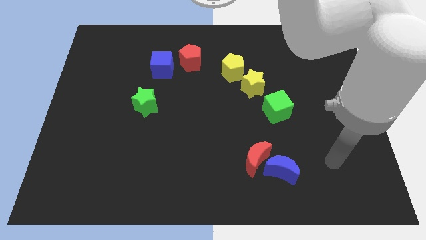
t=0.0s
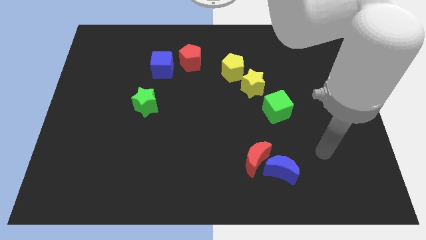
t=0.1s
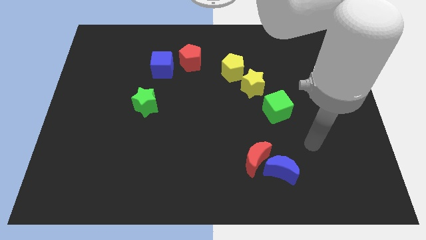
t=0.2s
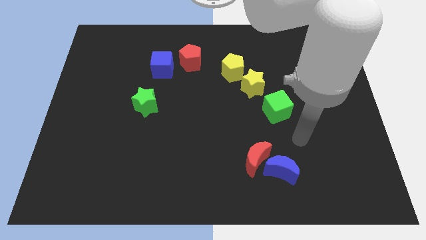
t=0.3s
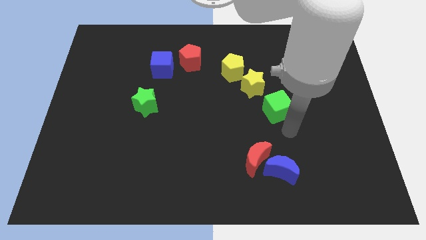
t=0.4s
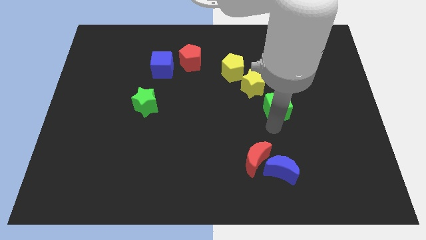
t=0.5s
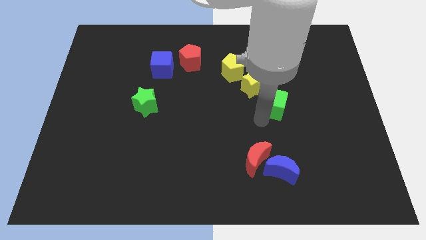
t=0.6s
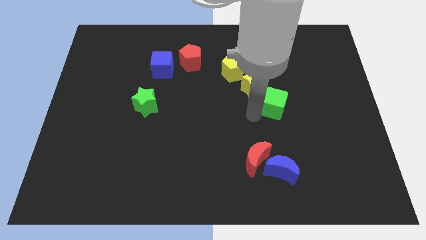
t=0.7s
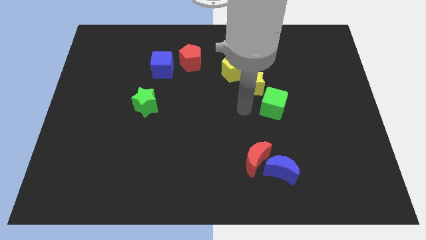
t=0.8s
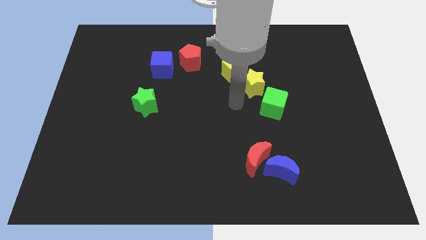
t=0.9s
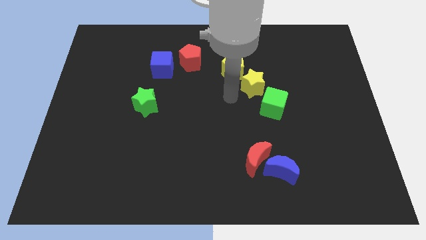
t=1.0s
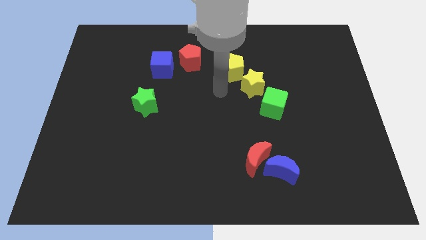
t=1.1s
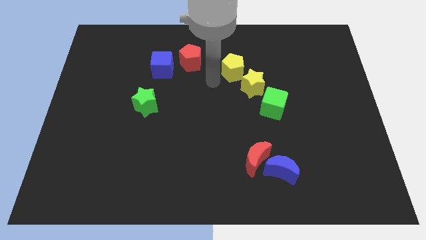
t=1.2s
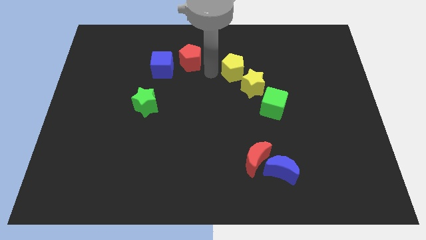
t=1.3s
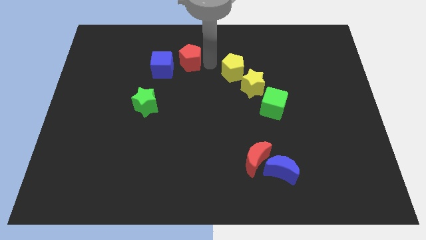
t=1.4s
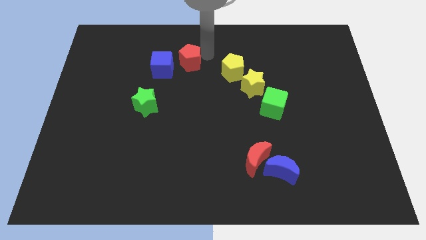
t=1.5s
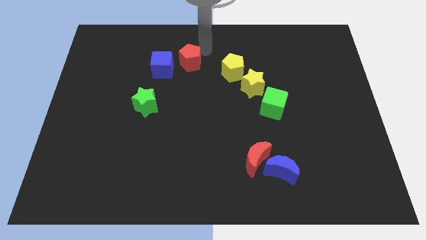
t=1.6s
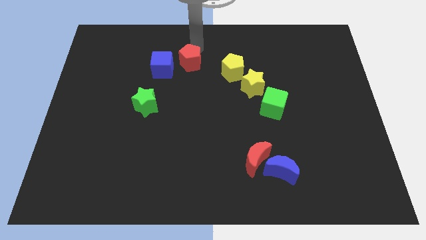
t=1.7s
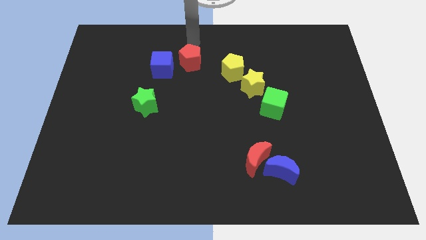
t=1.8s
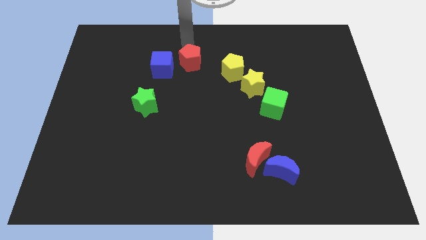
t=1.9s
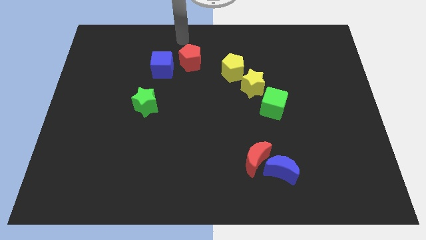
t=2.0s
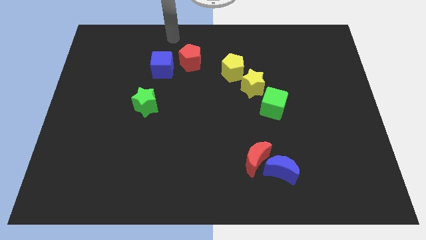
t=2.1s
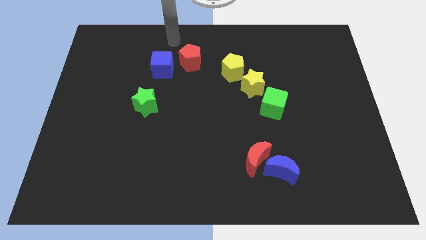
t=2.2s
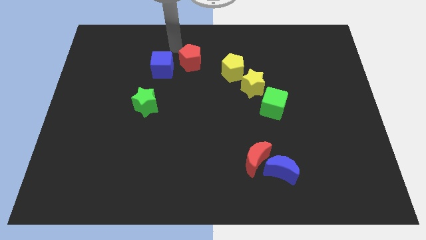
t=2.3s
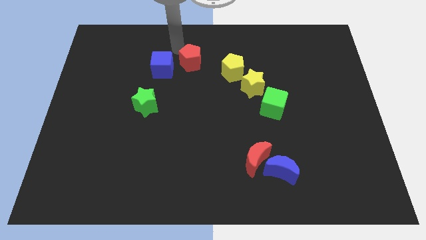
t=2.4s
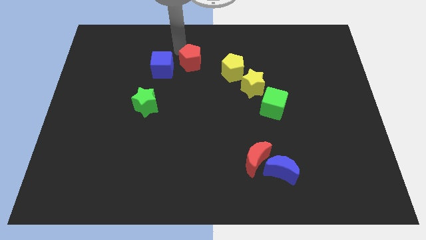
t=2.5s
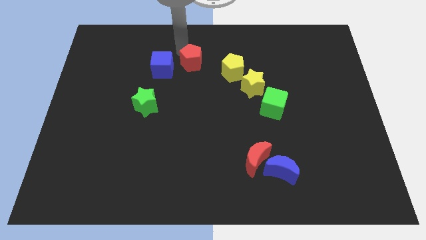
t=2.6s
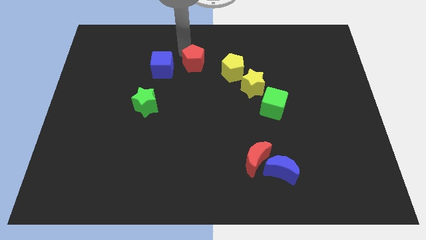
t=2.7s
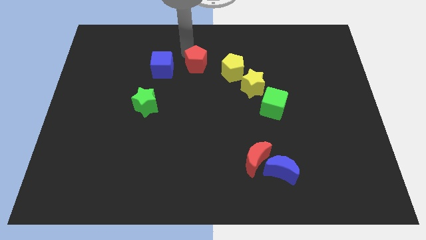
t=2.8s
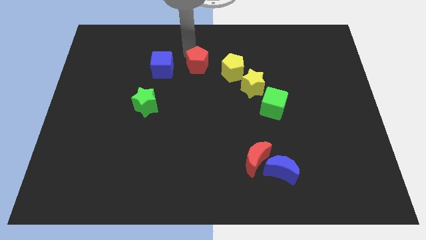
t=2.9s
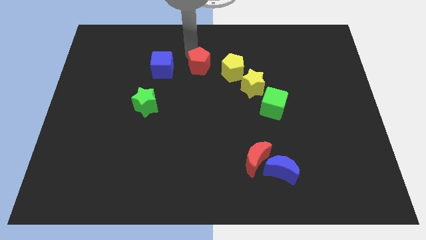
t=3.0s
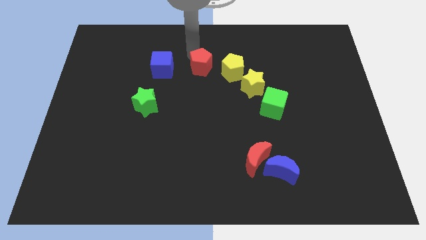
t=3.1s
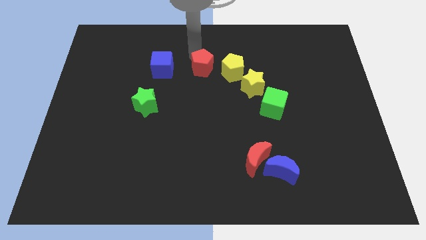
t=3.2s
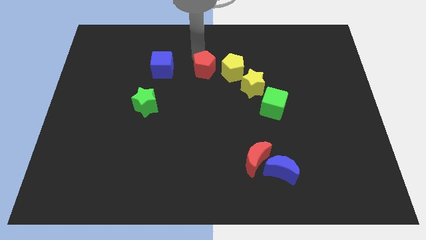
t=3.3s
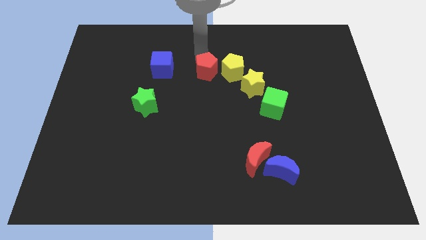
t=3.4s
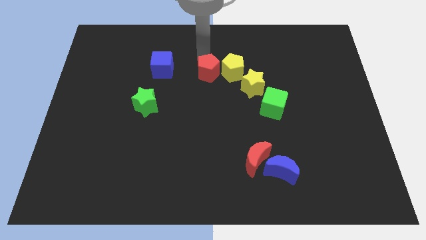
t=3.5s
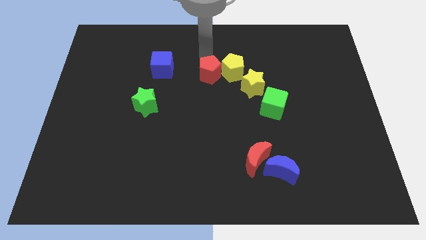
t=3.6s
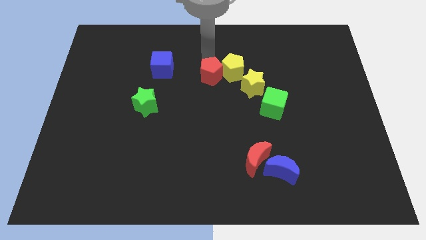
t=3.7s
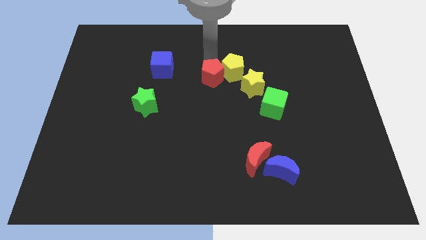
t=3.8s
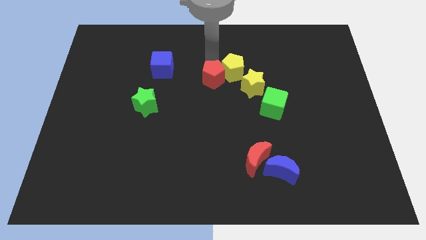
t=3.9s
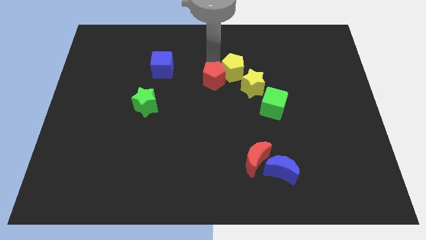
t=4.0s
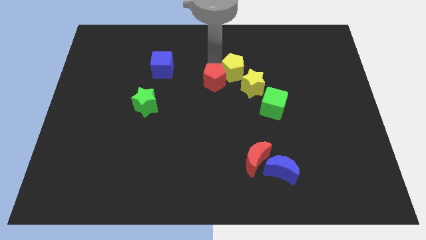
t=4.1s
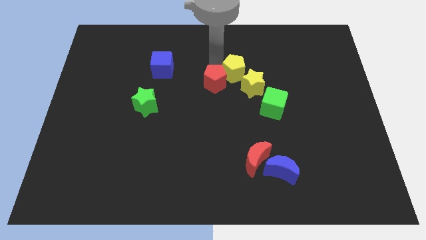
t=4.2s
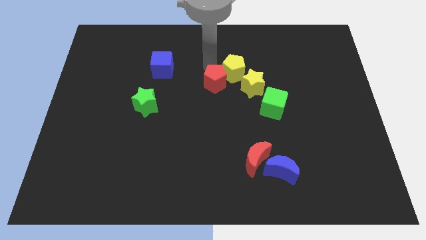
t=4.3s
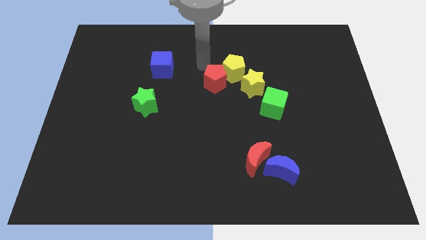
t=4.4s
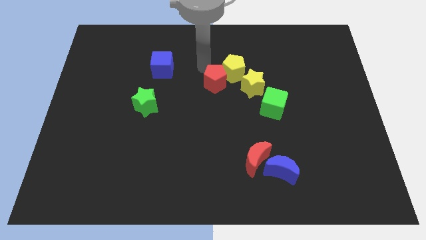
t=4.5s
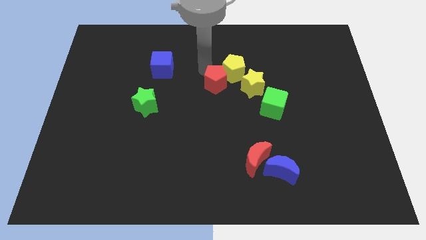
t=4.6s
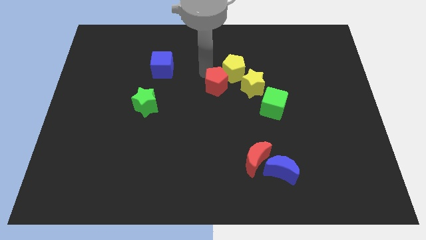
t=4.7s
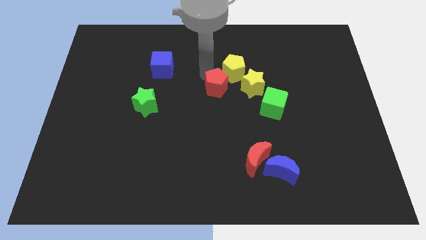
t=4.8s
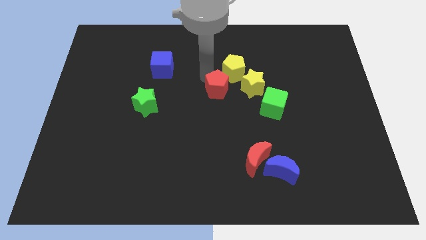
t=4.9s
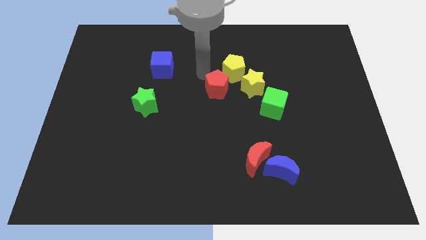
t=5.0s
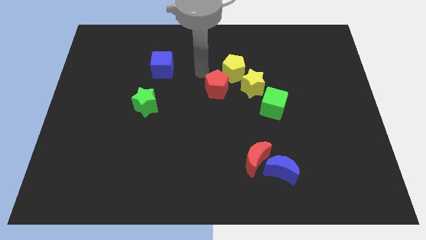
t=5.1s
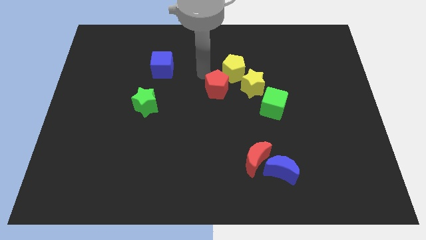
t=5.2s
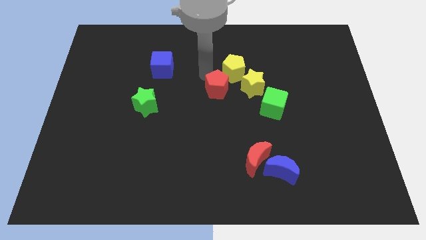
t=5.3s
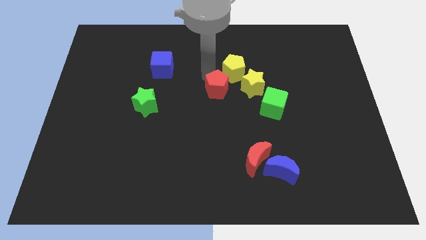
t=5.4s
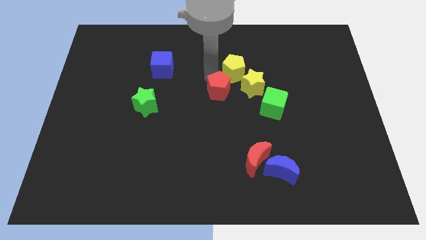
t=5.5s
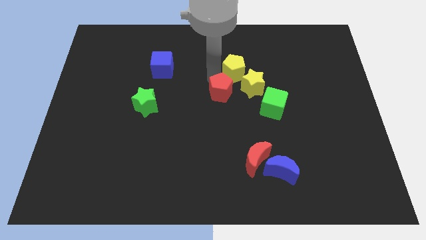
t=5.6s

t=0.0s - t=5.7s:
push the red pentagon diagonally down and to the left of the yellow star

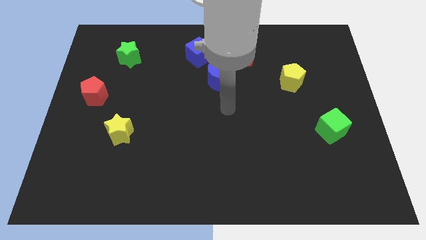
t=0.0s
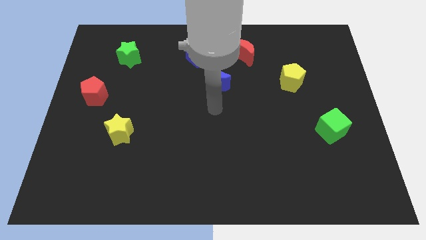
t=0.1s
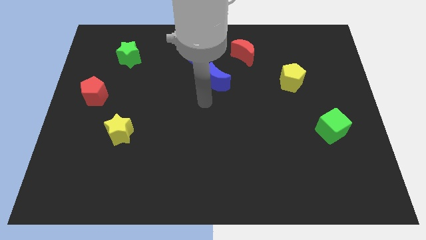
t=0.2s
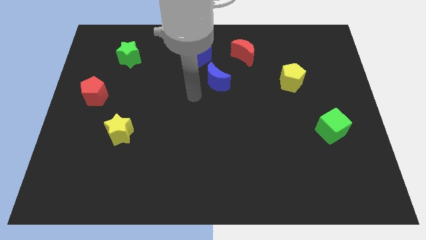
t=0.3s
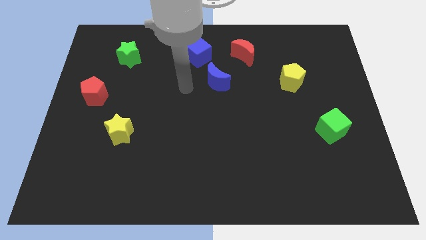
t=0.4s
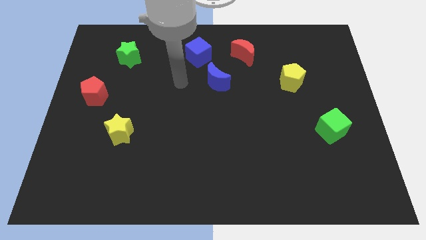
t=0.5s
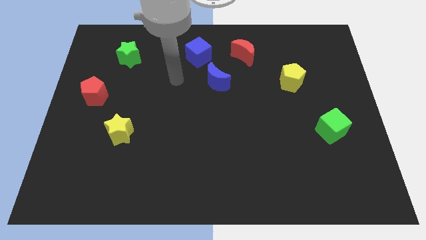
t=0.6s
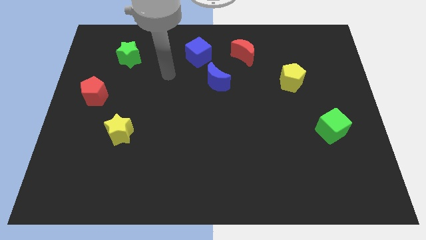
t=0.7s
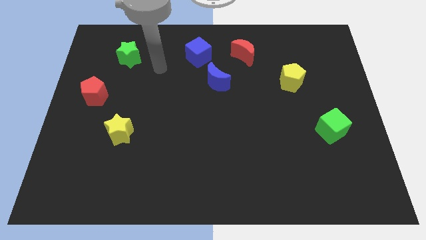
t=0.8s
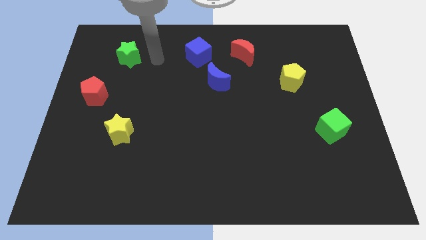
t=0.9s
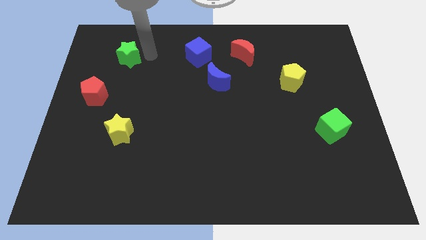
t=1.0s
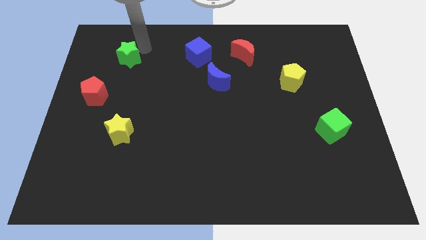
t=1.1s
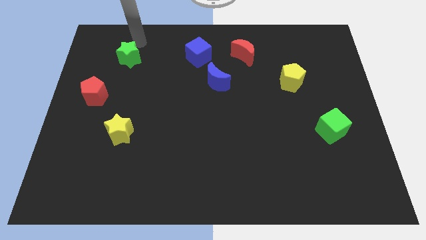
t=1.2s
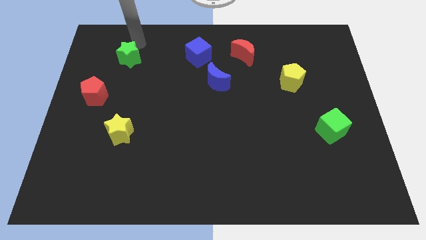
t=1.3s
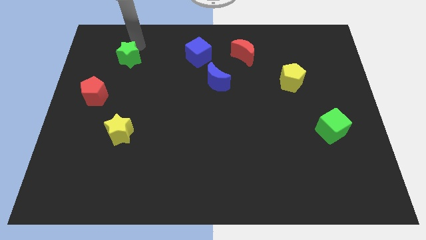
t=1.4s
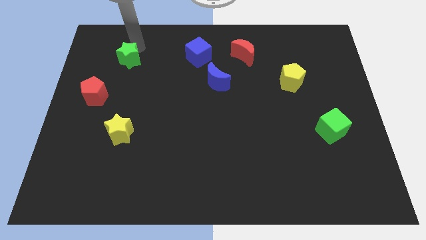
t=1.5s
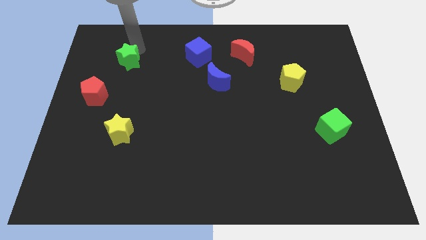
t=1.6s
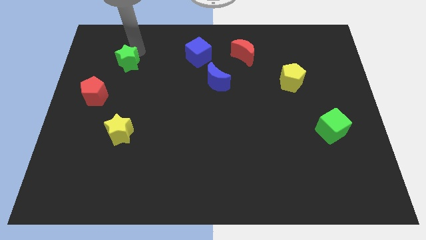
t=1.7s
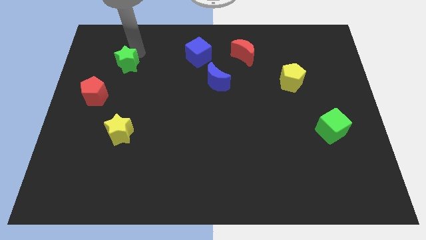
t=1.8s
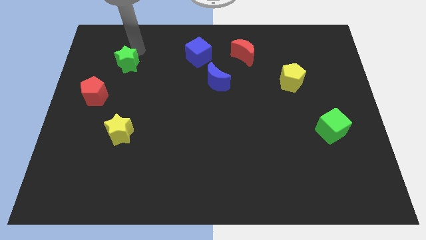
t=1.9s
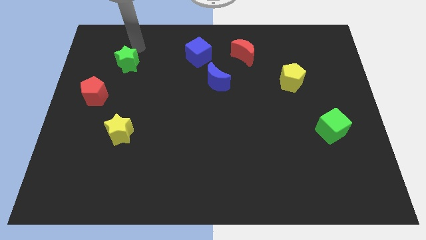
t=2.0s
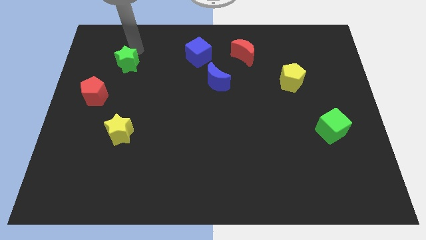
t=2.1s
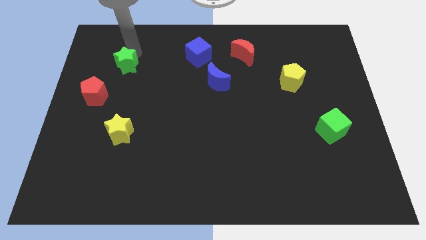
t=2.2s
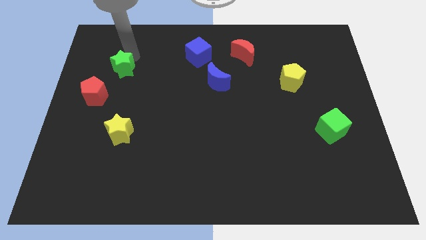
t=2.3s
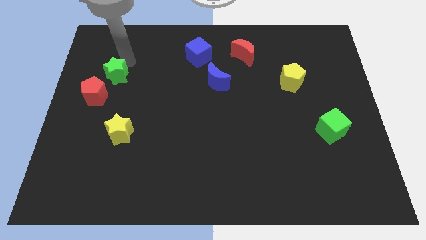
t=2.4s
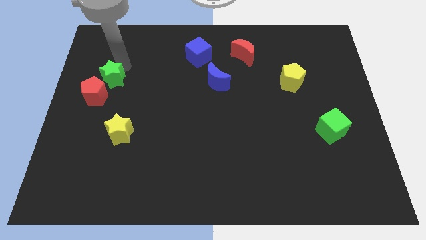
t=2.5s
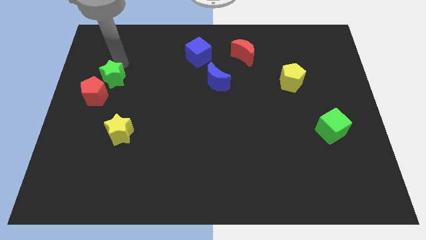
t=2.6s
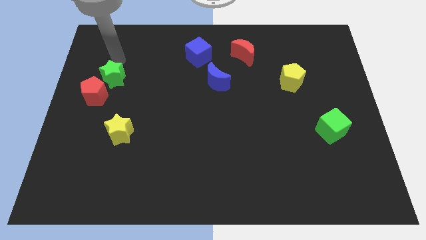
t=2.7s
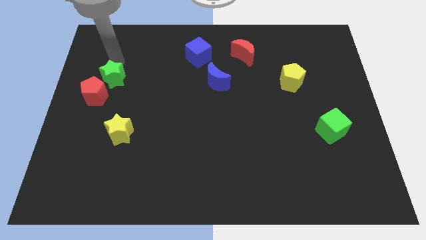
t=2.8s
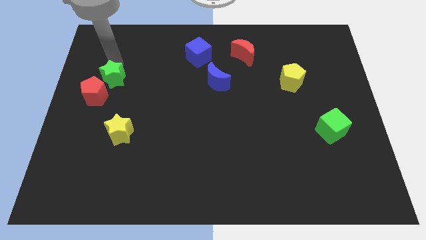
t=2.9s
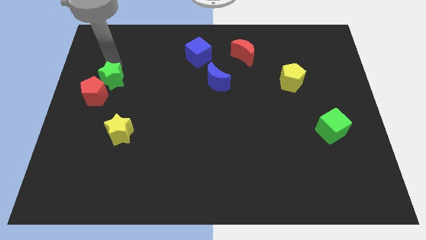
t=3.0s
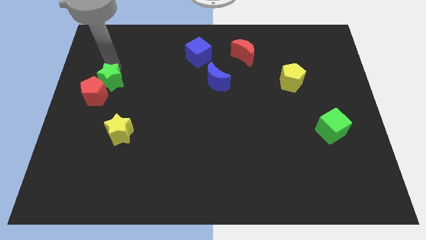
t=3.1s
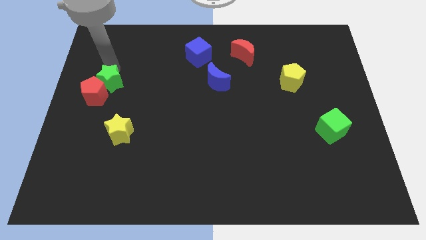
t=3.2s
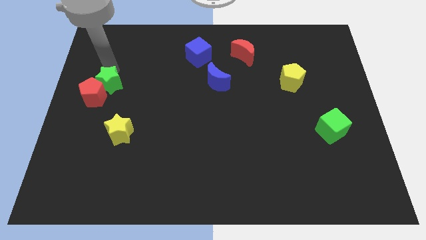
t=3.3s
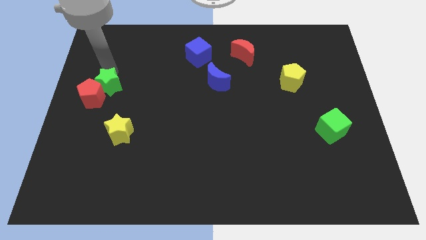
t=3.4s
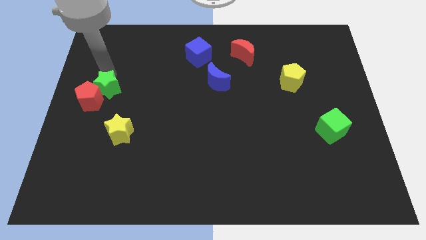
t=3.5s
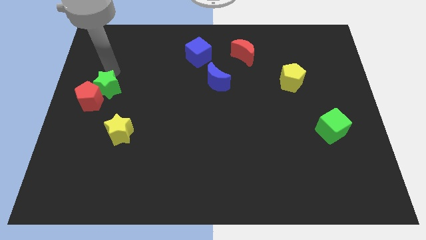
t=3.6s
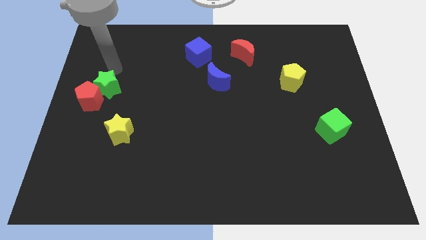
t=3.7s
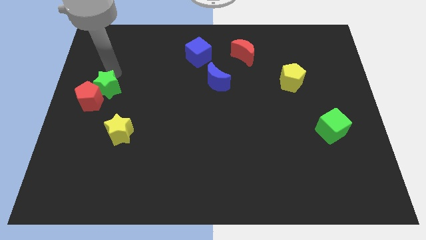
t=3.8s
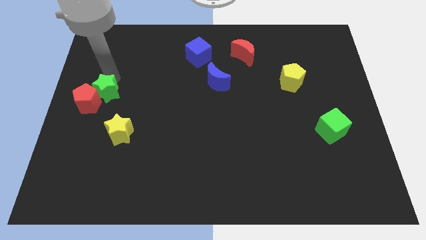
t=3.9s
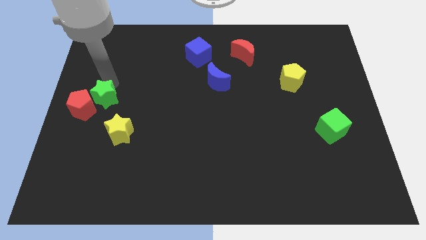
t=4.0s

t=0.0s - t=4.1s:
put the green star diagonally up and to the left of the yellow star
